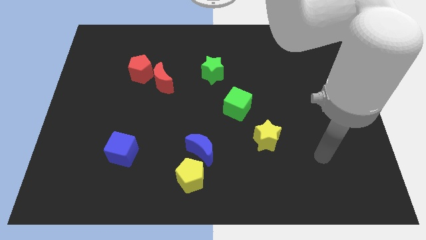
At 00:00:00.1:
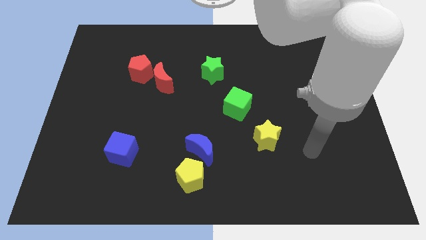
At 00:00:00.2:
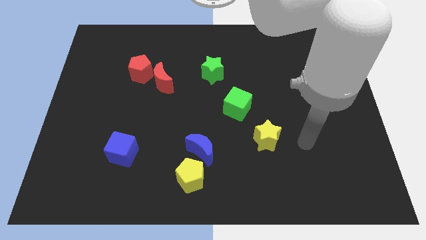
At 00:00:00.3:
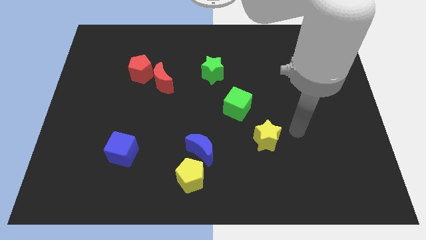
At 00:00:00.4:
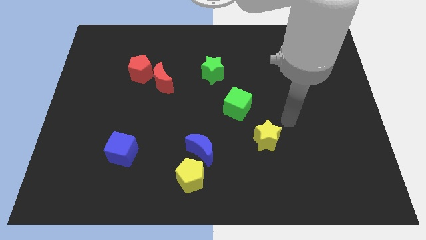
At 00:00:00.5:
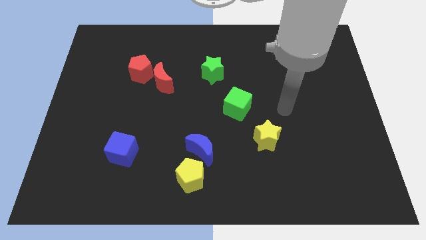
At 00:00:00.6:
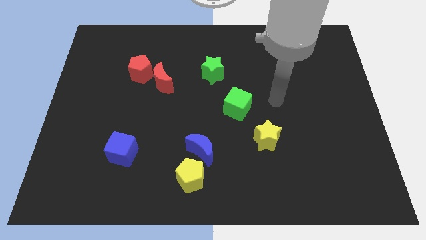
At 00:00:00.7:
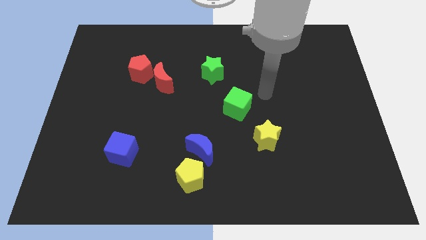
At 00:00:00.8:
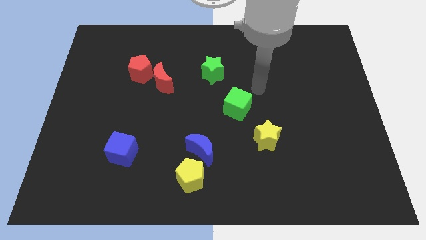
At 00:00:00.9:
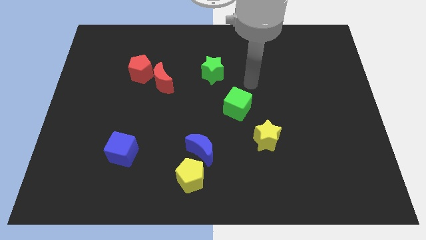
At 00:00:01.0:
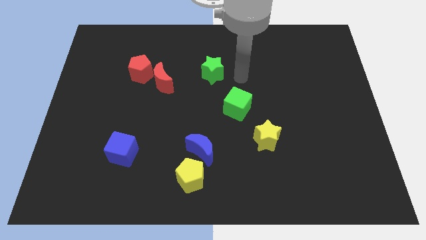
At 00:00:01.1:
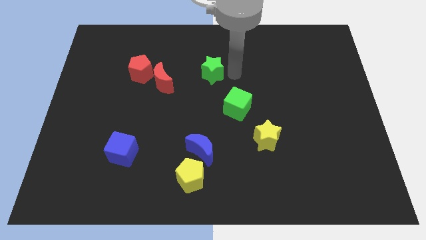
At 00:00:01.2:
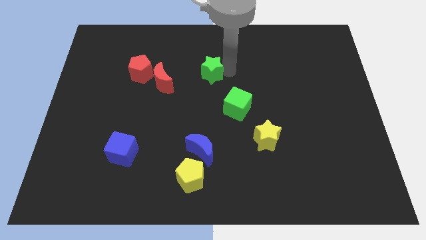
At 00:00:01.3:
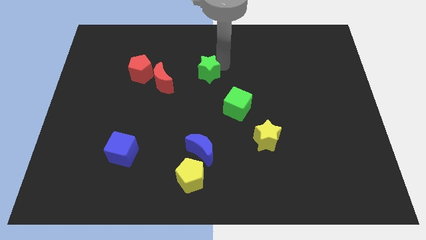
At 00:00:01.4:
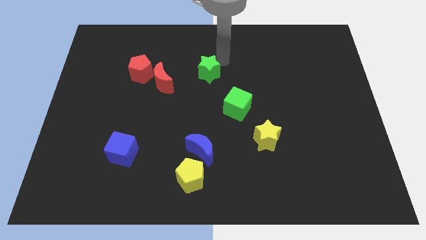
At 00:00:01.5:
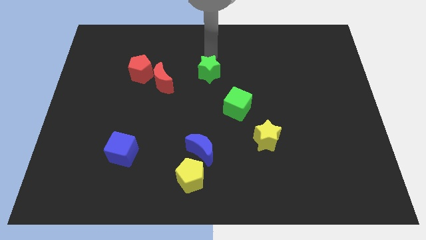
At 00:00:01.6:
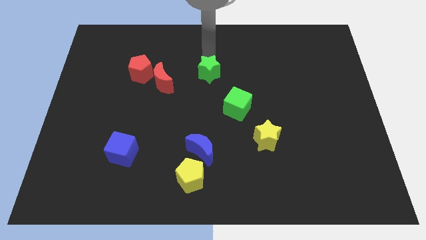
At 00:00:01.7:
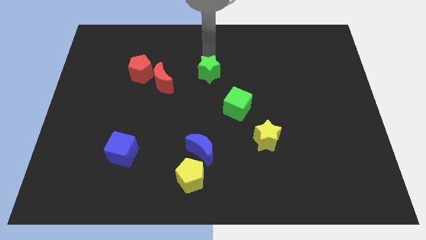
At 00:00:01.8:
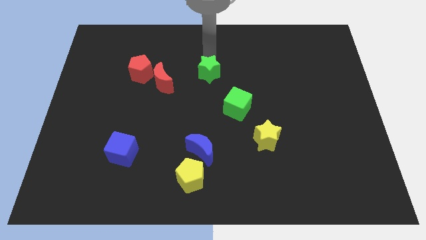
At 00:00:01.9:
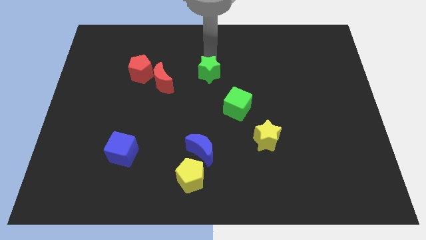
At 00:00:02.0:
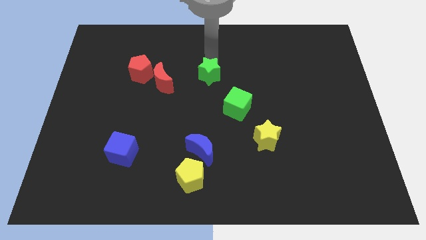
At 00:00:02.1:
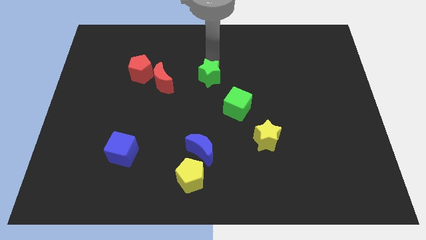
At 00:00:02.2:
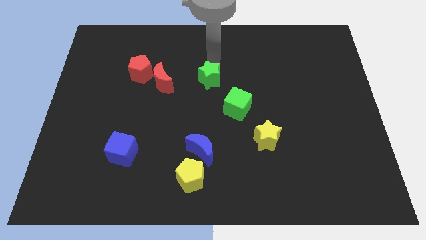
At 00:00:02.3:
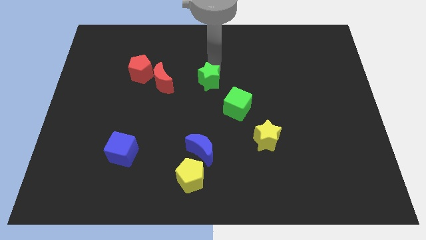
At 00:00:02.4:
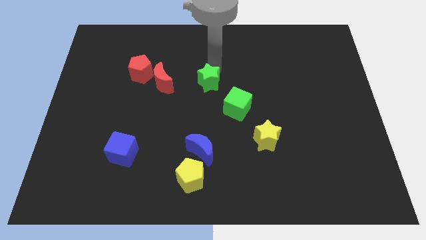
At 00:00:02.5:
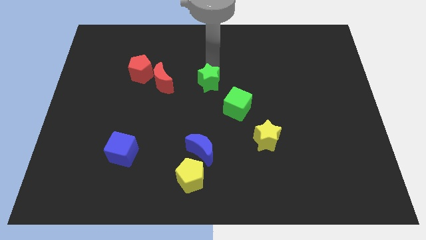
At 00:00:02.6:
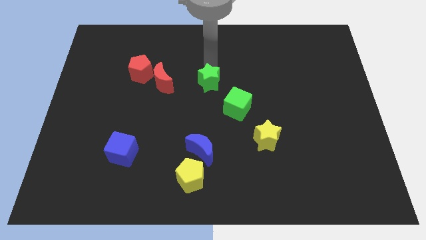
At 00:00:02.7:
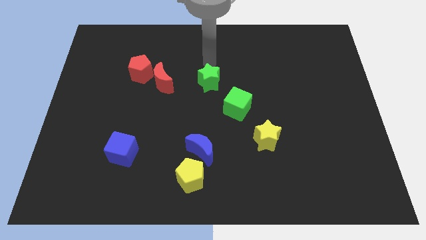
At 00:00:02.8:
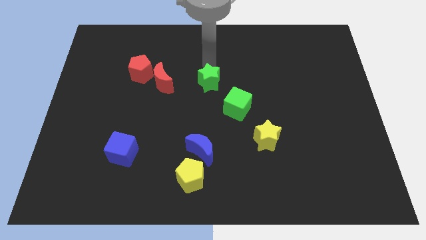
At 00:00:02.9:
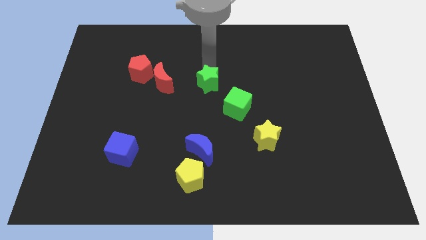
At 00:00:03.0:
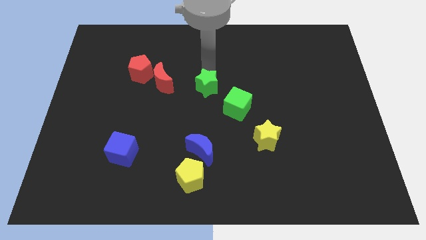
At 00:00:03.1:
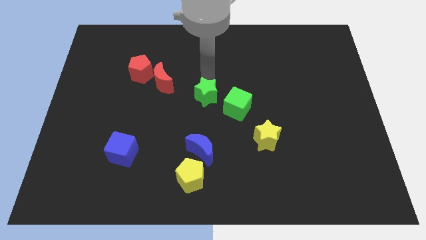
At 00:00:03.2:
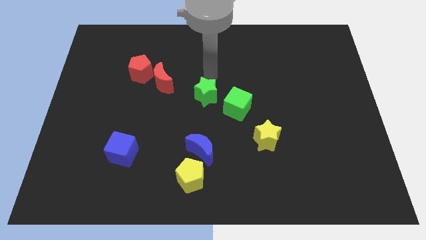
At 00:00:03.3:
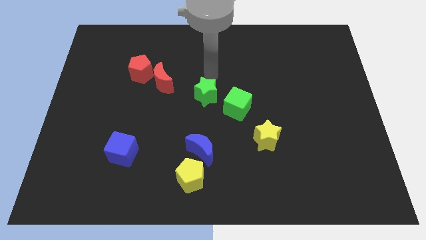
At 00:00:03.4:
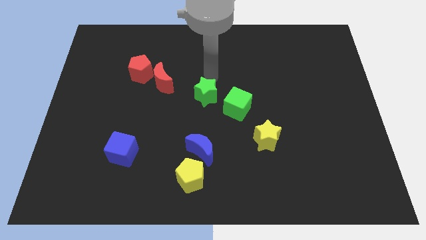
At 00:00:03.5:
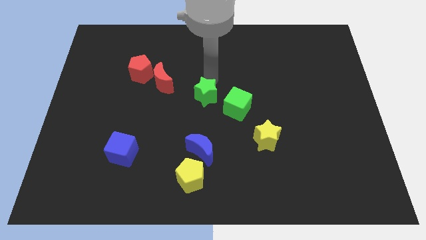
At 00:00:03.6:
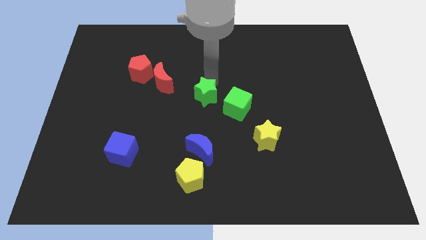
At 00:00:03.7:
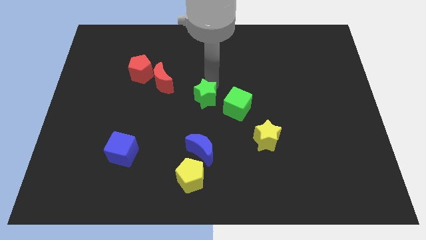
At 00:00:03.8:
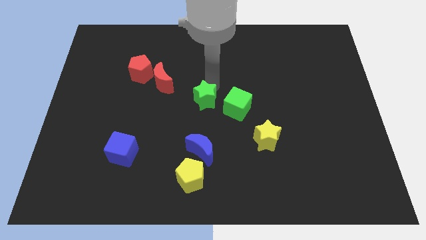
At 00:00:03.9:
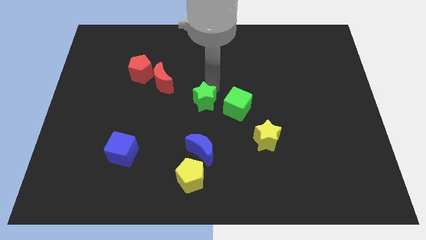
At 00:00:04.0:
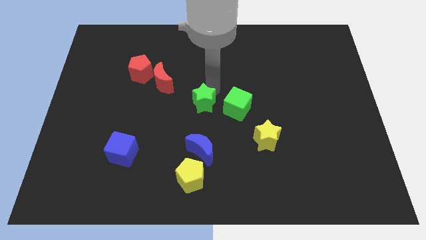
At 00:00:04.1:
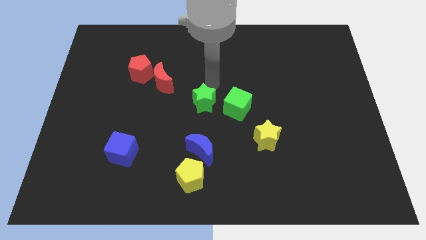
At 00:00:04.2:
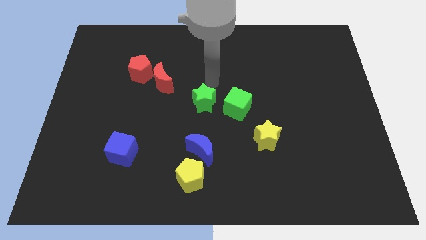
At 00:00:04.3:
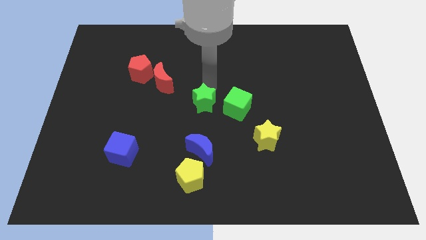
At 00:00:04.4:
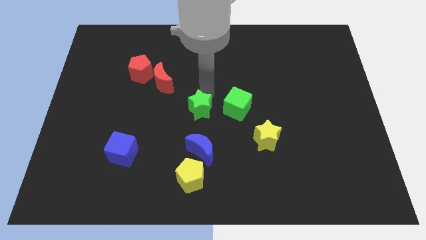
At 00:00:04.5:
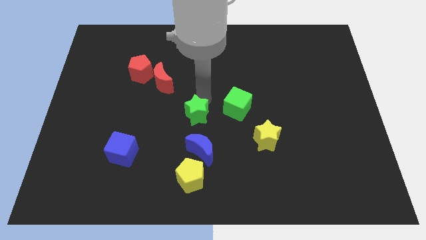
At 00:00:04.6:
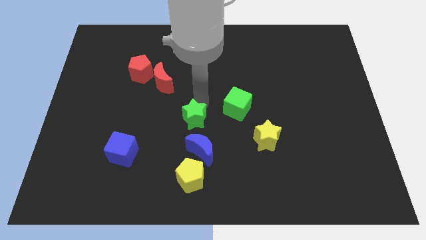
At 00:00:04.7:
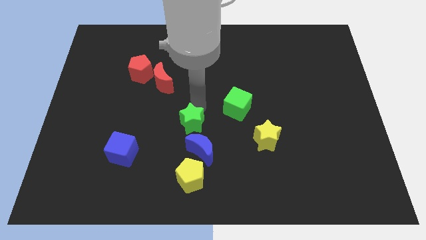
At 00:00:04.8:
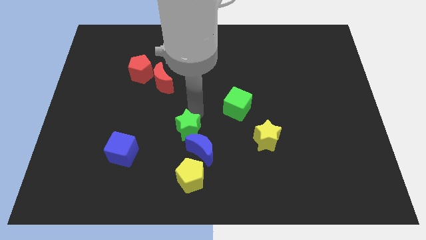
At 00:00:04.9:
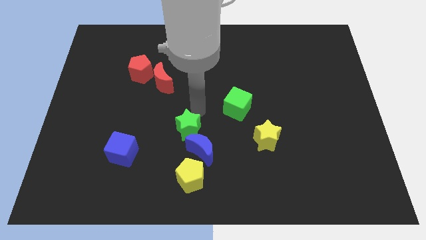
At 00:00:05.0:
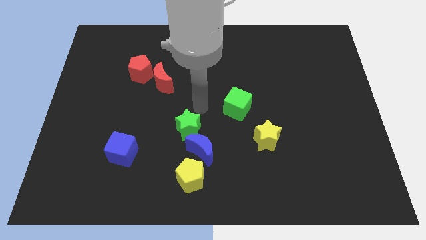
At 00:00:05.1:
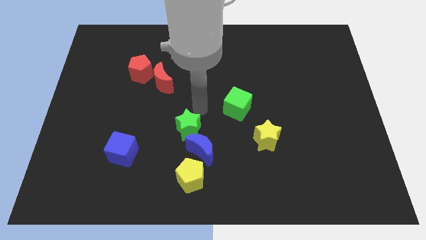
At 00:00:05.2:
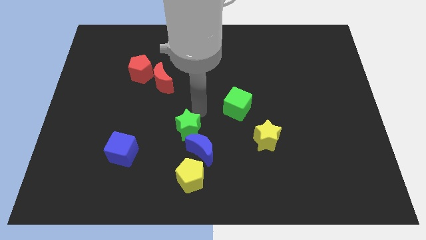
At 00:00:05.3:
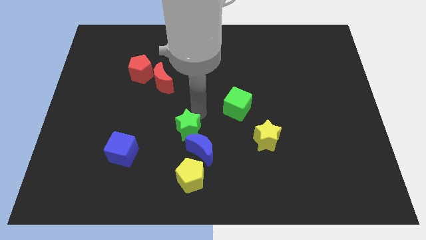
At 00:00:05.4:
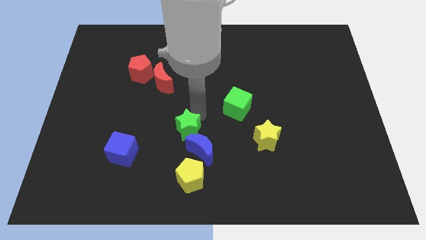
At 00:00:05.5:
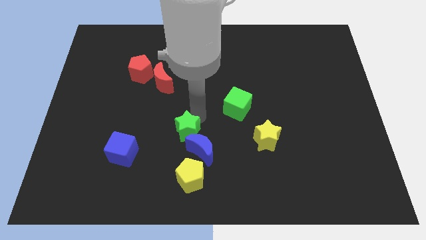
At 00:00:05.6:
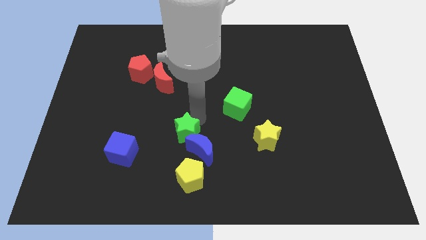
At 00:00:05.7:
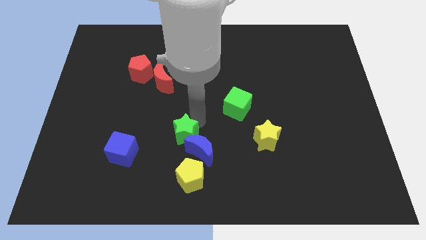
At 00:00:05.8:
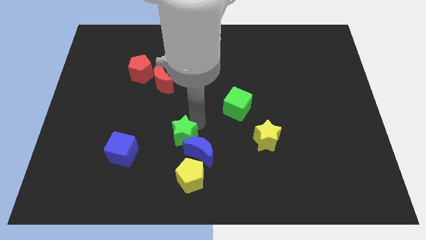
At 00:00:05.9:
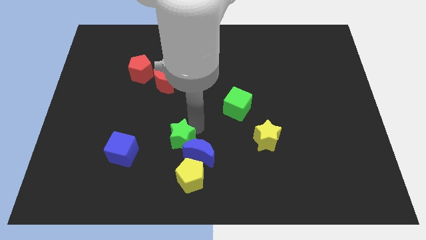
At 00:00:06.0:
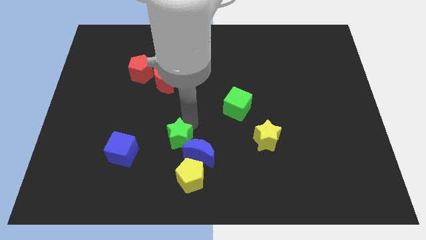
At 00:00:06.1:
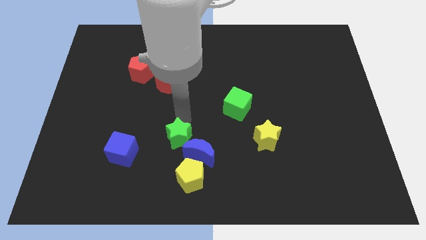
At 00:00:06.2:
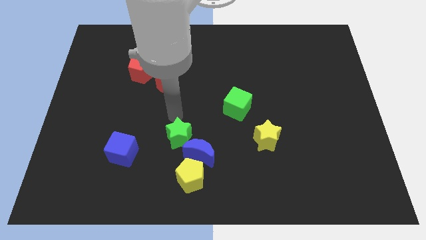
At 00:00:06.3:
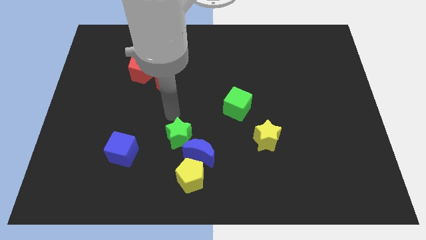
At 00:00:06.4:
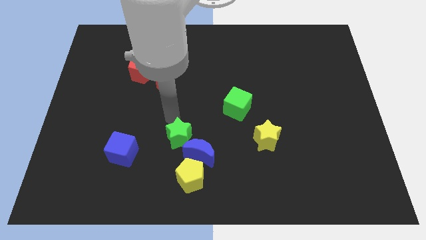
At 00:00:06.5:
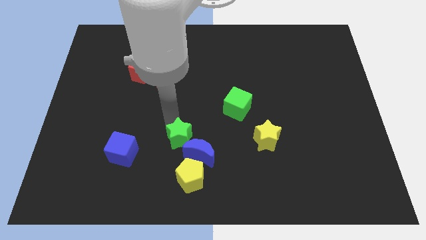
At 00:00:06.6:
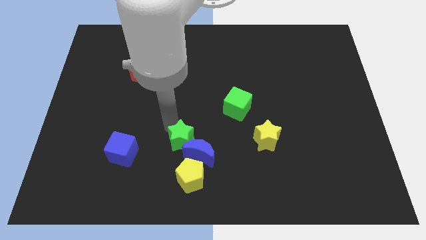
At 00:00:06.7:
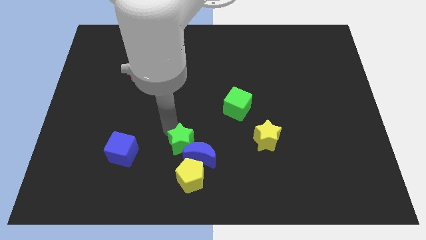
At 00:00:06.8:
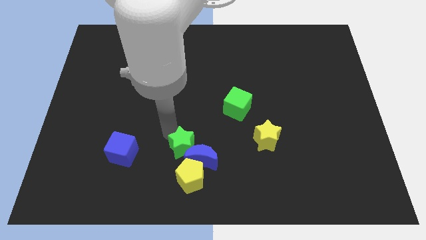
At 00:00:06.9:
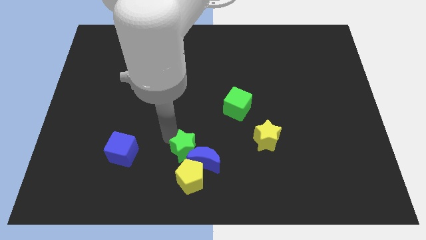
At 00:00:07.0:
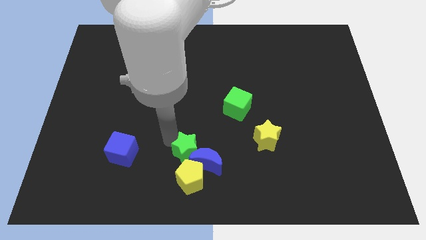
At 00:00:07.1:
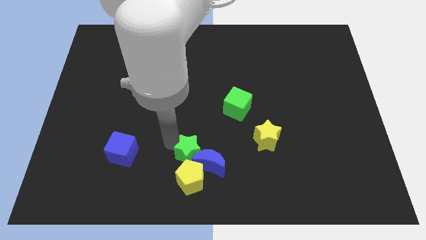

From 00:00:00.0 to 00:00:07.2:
put the green star to the yellow pentagon

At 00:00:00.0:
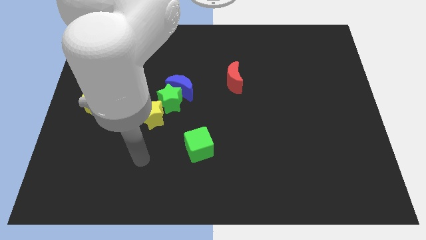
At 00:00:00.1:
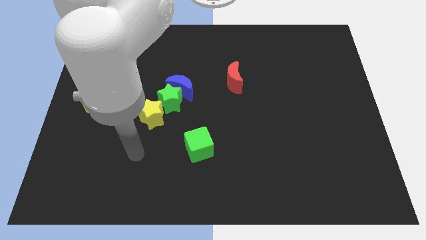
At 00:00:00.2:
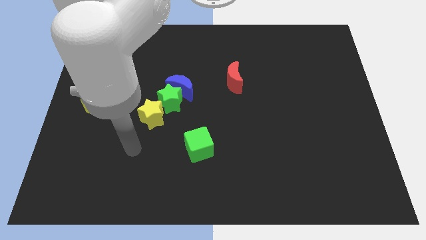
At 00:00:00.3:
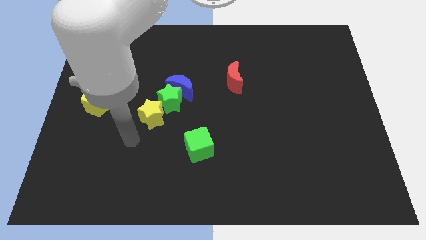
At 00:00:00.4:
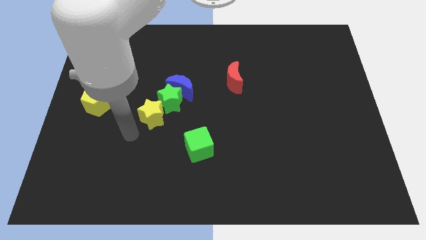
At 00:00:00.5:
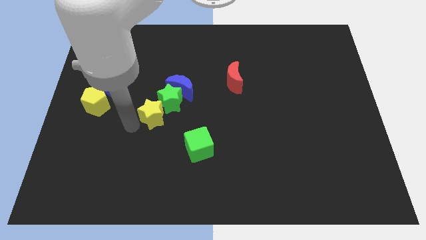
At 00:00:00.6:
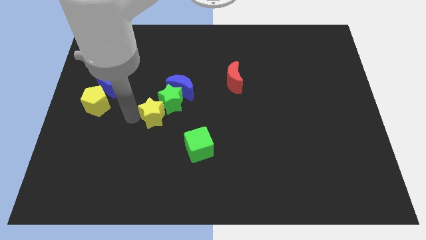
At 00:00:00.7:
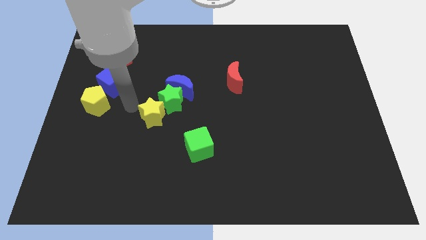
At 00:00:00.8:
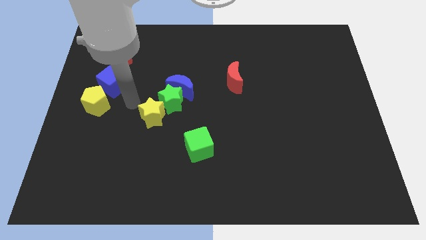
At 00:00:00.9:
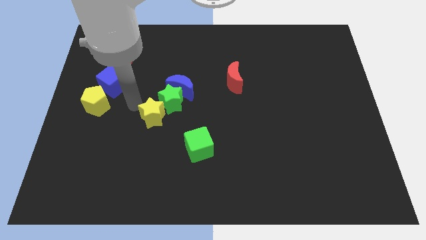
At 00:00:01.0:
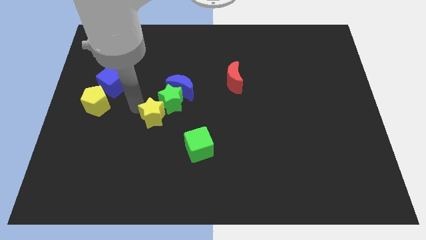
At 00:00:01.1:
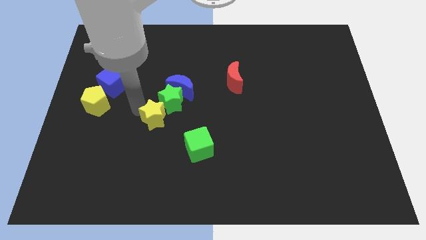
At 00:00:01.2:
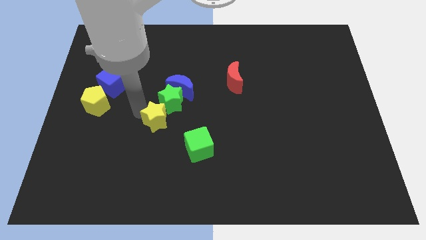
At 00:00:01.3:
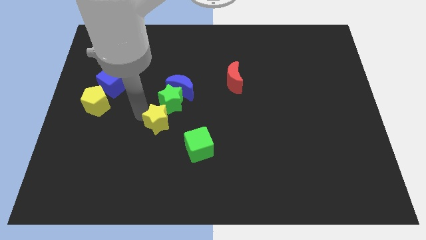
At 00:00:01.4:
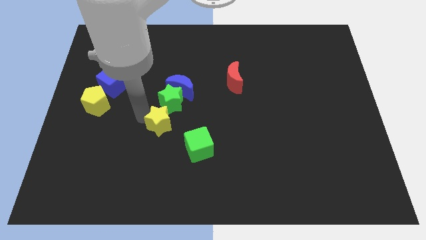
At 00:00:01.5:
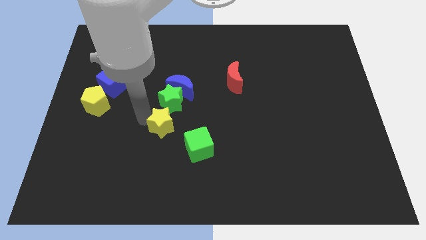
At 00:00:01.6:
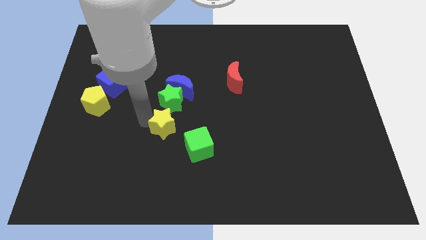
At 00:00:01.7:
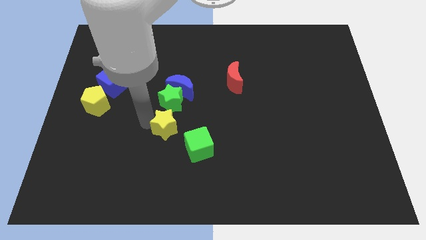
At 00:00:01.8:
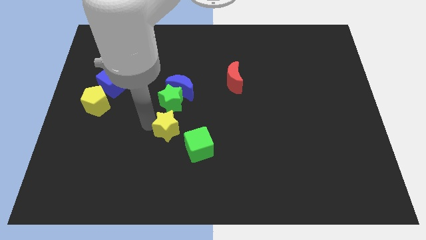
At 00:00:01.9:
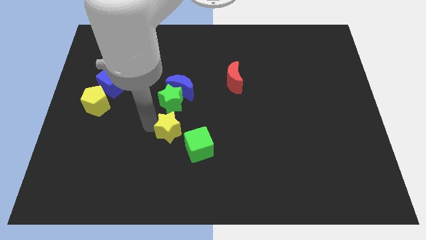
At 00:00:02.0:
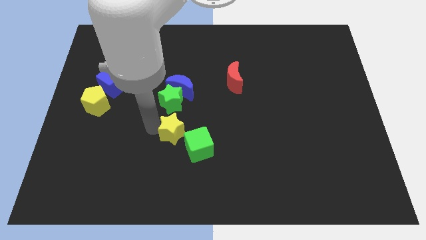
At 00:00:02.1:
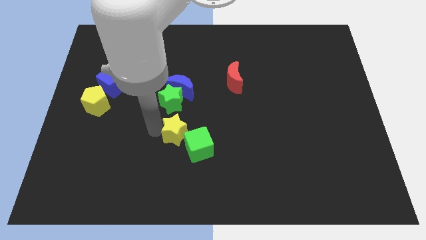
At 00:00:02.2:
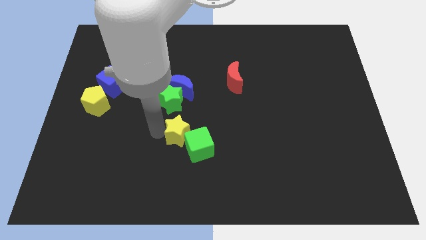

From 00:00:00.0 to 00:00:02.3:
slide the yellow star to the green cube
